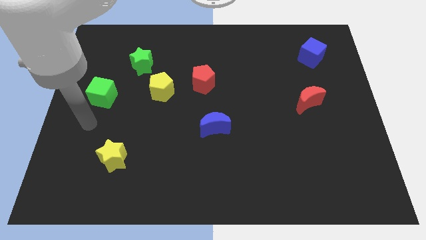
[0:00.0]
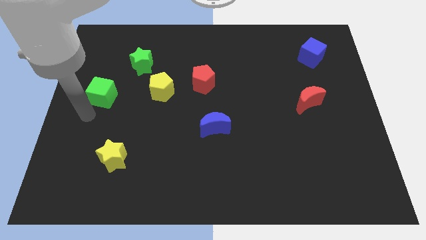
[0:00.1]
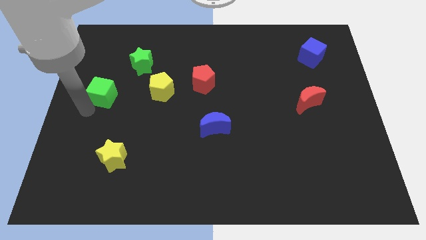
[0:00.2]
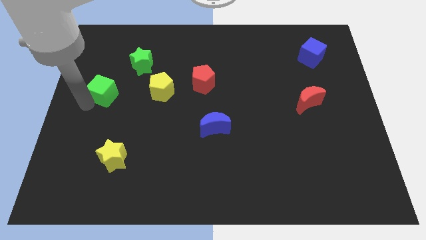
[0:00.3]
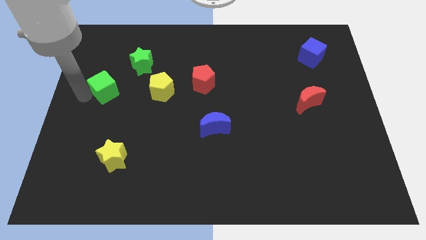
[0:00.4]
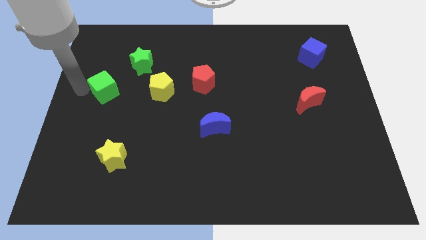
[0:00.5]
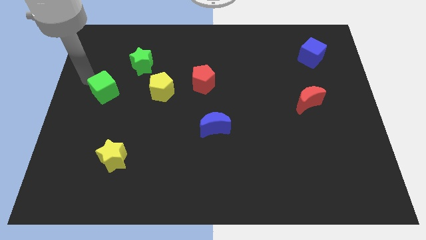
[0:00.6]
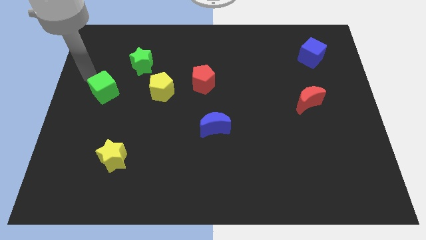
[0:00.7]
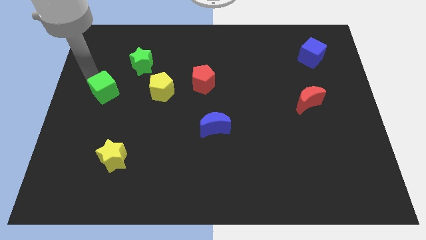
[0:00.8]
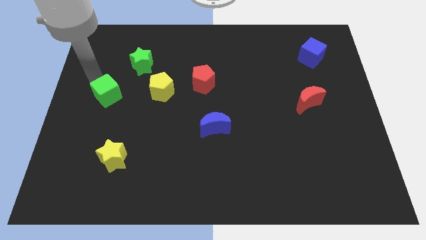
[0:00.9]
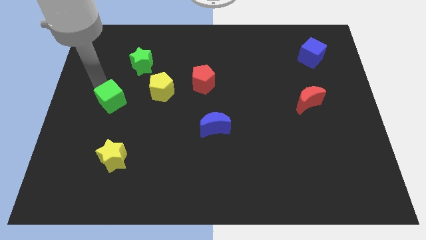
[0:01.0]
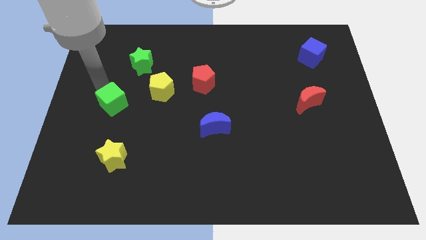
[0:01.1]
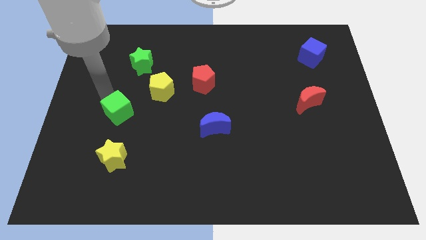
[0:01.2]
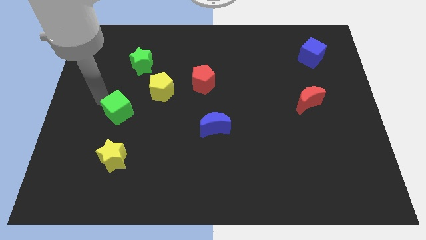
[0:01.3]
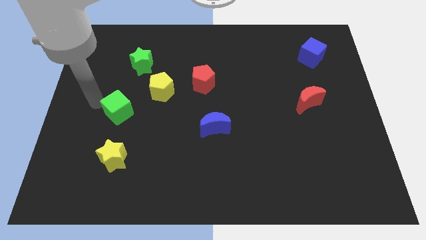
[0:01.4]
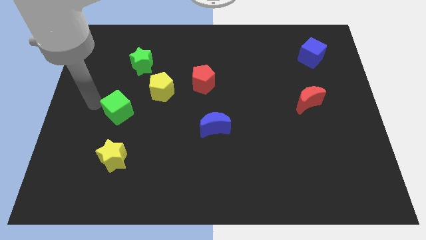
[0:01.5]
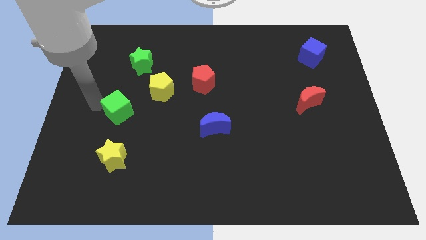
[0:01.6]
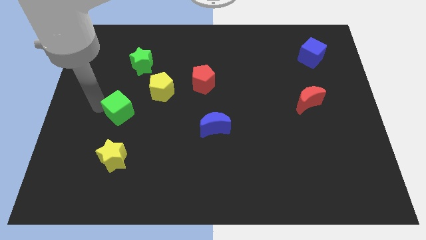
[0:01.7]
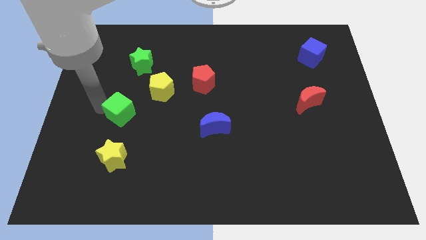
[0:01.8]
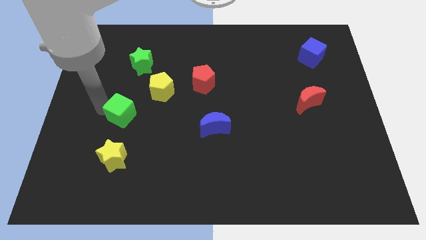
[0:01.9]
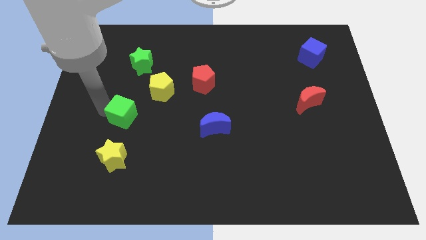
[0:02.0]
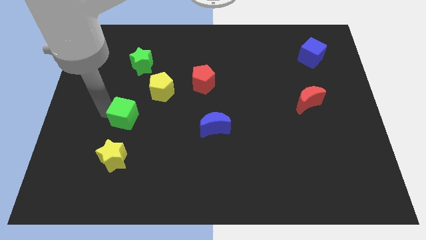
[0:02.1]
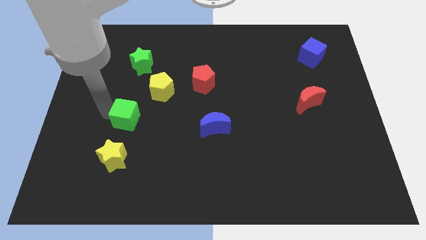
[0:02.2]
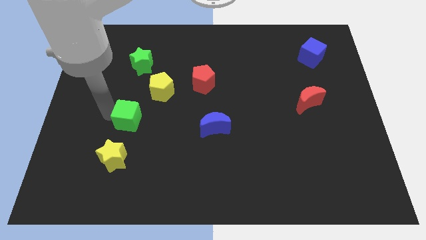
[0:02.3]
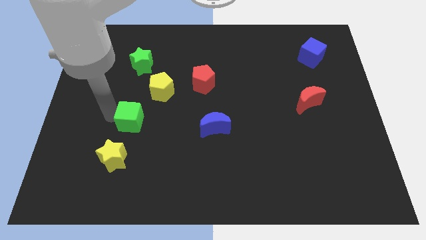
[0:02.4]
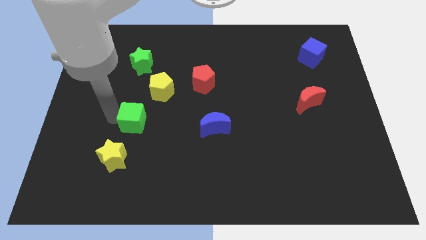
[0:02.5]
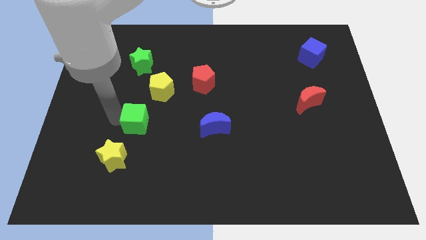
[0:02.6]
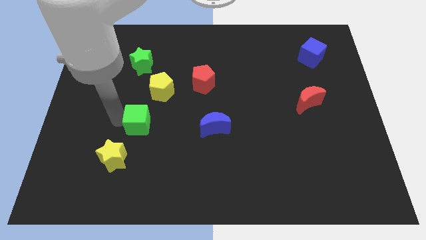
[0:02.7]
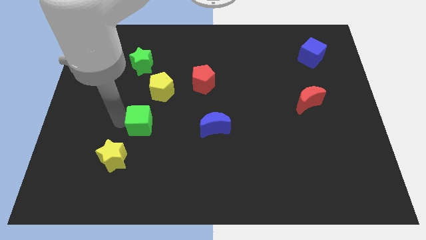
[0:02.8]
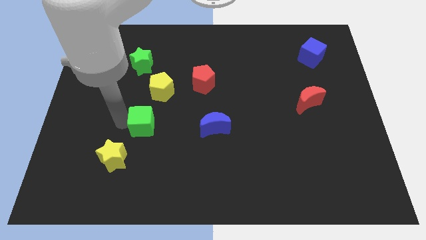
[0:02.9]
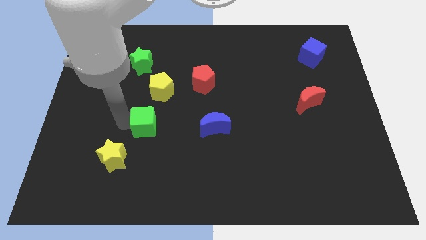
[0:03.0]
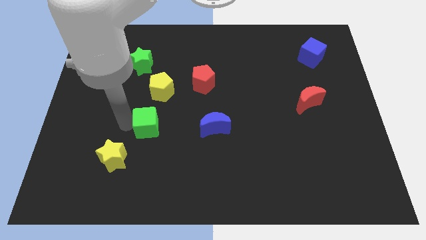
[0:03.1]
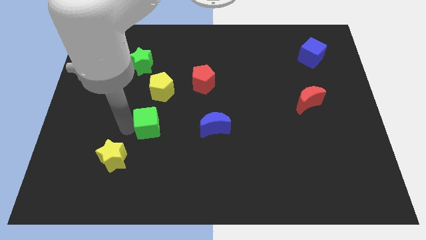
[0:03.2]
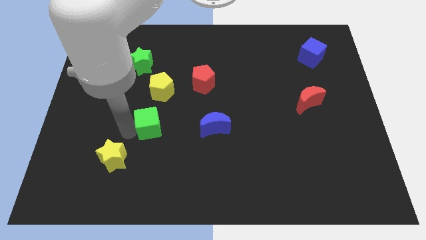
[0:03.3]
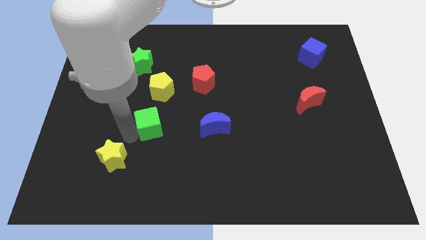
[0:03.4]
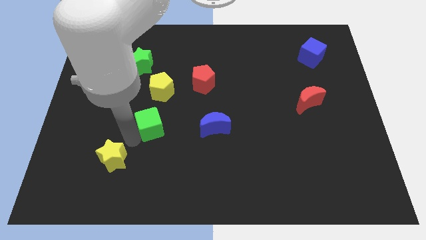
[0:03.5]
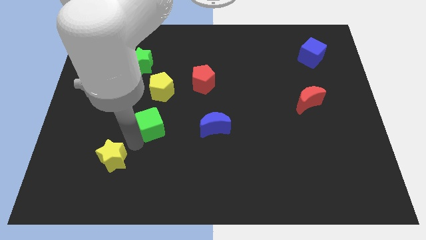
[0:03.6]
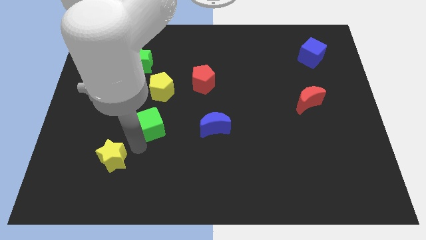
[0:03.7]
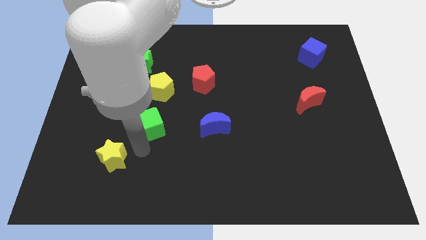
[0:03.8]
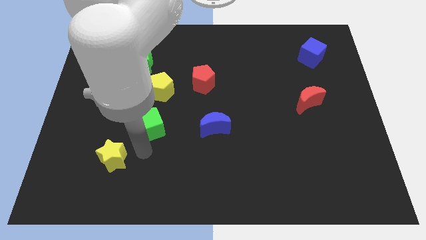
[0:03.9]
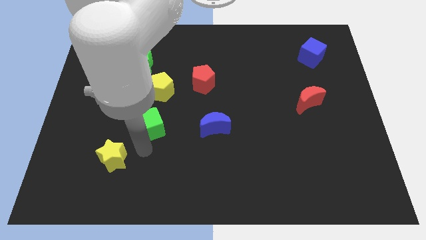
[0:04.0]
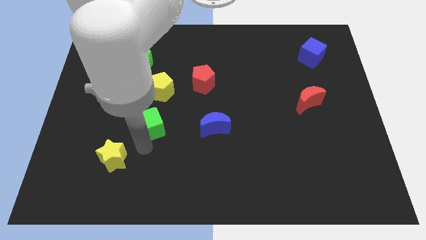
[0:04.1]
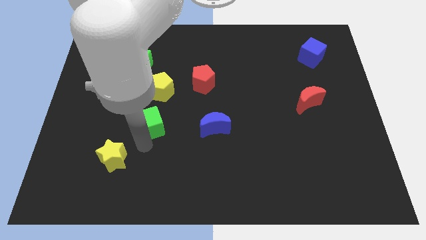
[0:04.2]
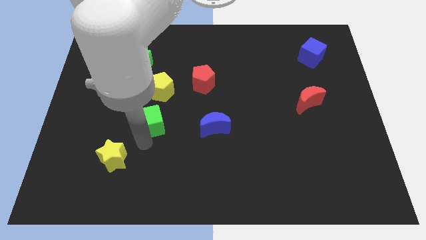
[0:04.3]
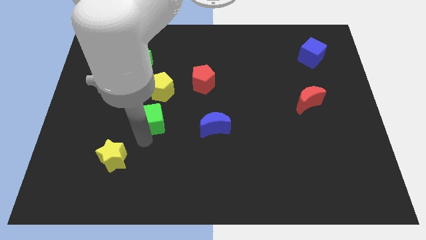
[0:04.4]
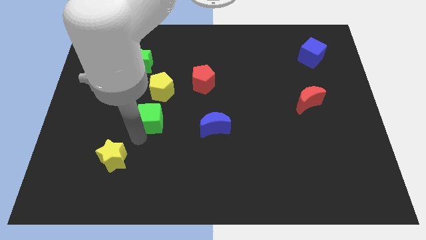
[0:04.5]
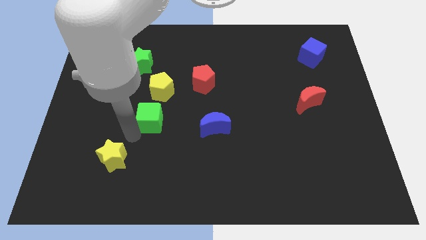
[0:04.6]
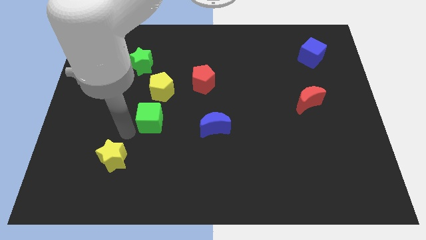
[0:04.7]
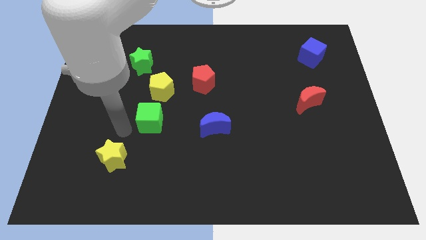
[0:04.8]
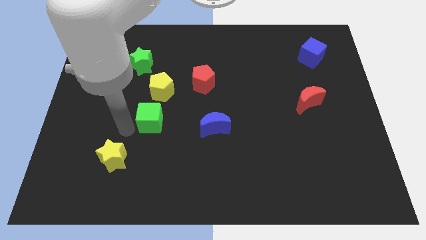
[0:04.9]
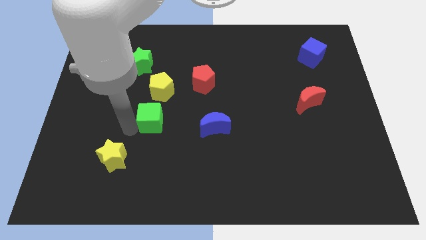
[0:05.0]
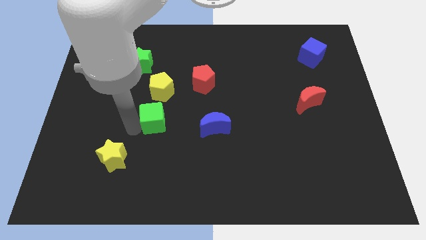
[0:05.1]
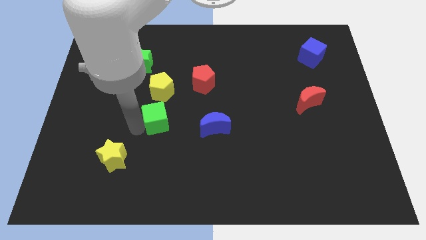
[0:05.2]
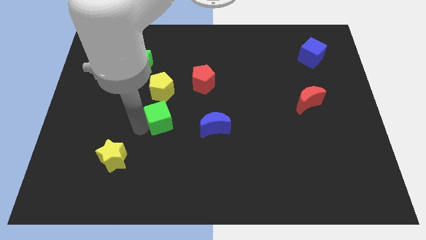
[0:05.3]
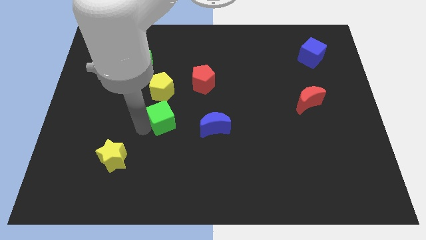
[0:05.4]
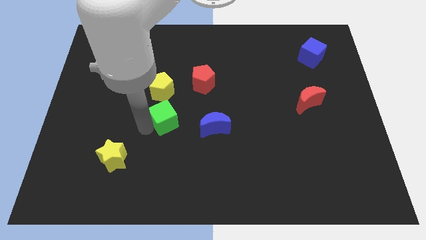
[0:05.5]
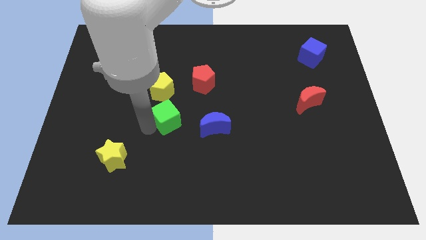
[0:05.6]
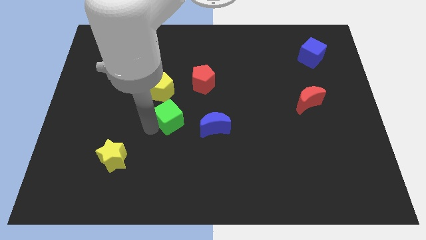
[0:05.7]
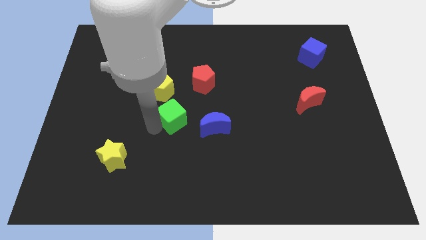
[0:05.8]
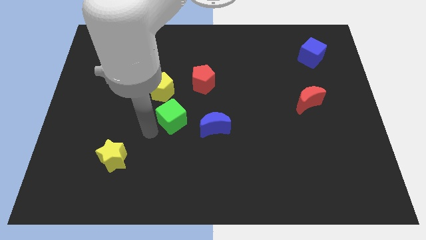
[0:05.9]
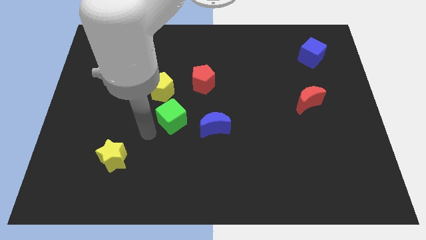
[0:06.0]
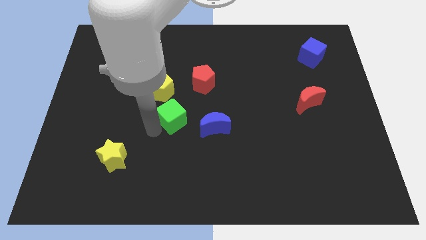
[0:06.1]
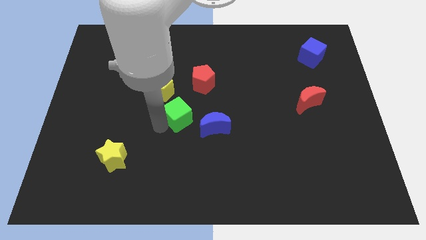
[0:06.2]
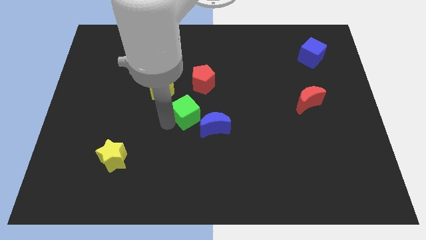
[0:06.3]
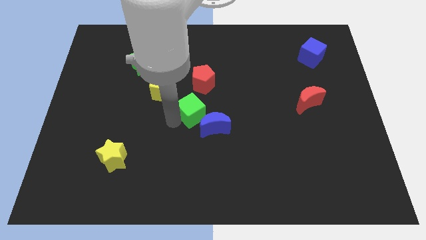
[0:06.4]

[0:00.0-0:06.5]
slide the green cube to the right

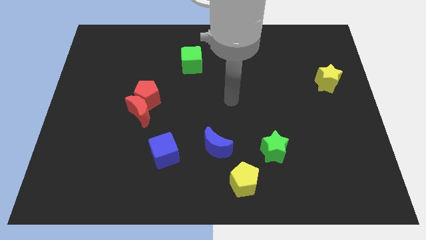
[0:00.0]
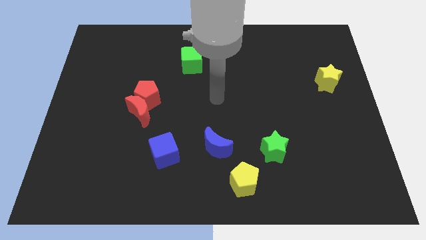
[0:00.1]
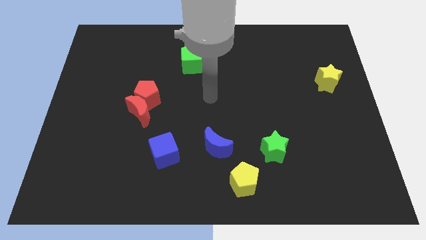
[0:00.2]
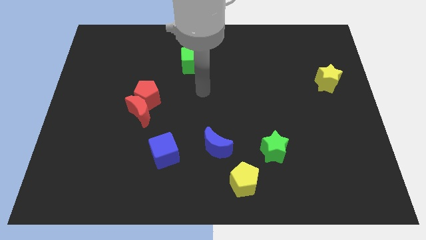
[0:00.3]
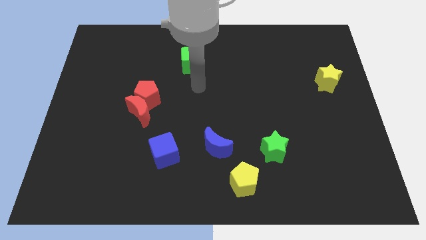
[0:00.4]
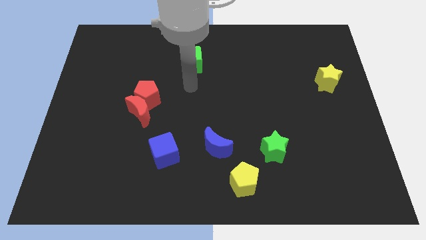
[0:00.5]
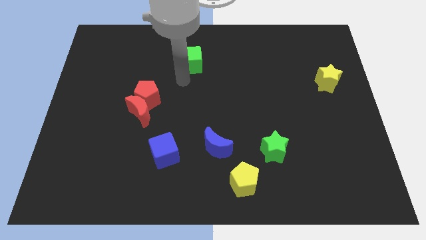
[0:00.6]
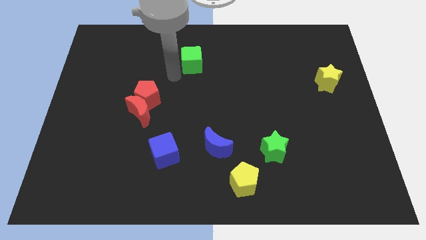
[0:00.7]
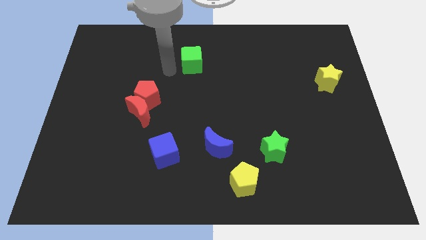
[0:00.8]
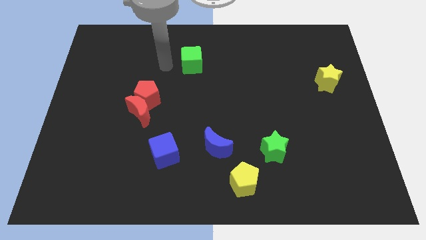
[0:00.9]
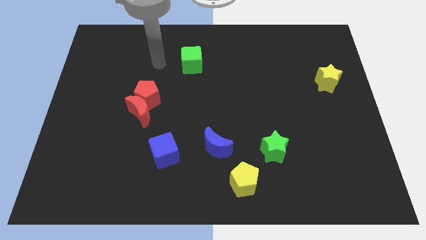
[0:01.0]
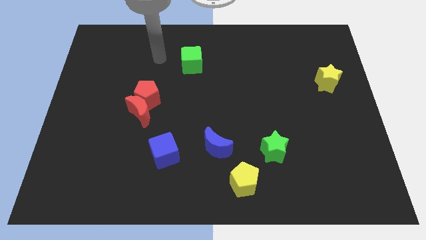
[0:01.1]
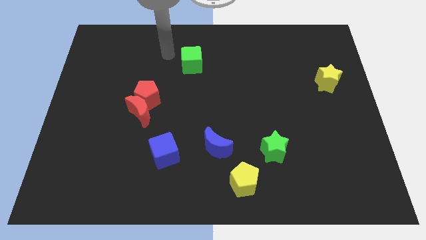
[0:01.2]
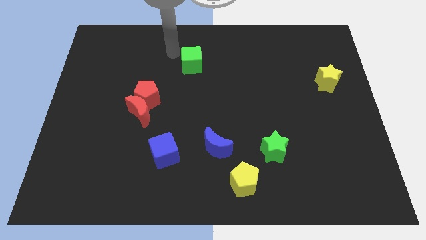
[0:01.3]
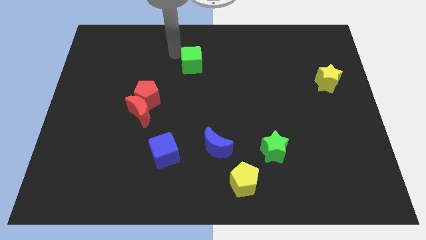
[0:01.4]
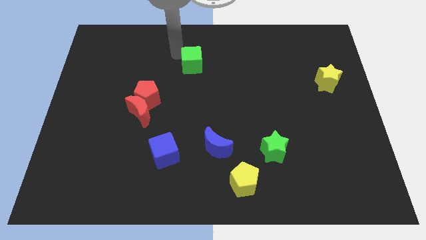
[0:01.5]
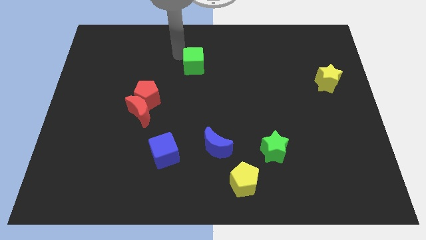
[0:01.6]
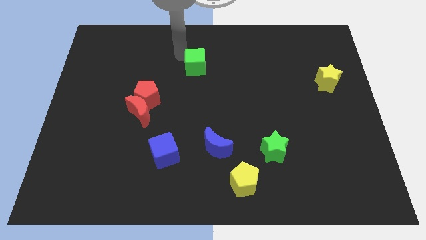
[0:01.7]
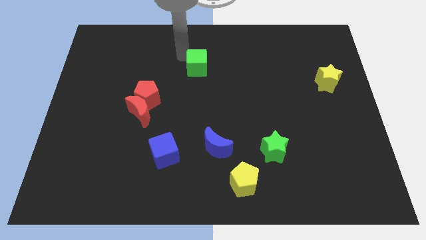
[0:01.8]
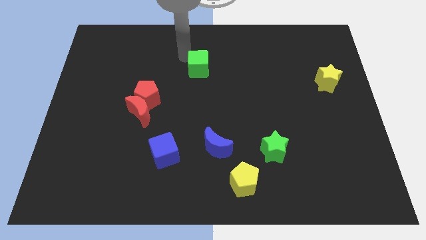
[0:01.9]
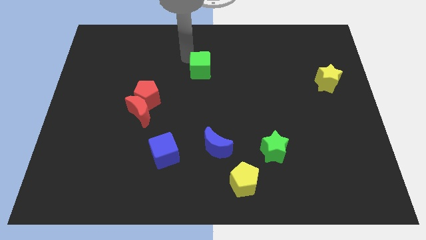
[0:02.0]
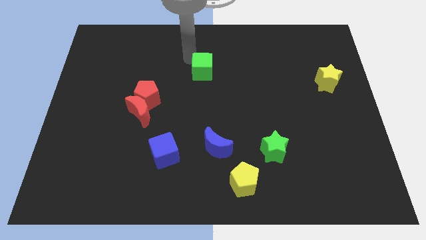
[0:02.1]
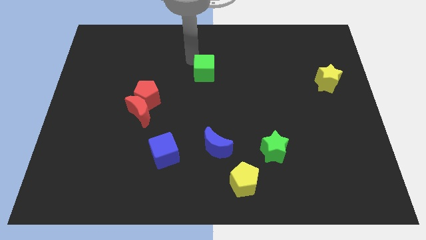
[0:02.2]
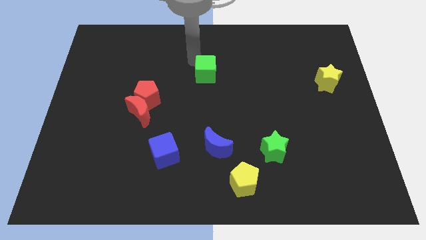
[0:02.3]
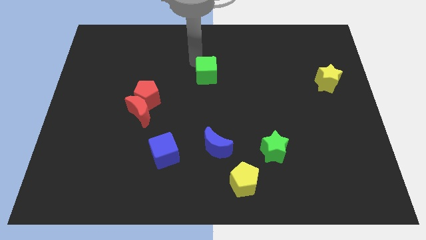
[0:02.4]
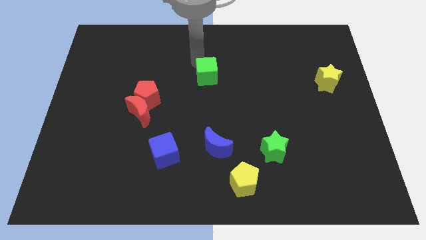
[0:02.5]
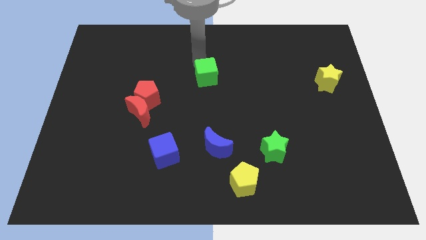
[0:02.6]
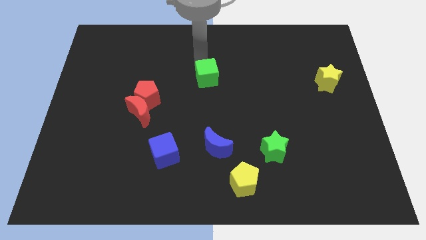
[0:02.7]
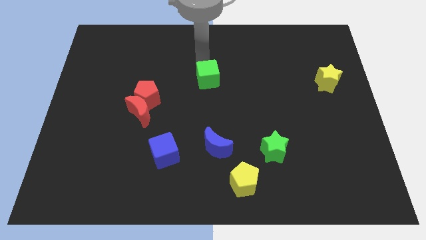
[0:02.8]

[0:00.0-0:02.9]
move the green cube a little bit downwards and to the right diagonally
